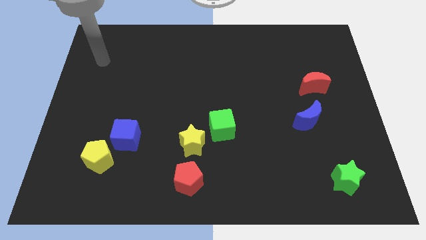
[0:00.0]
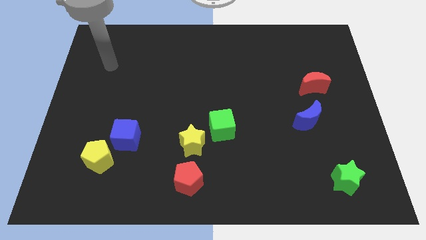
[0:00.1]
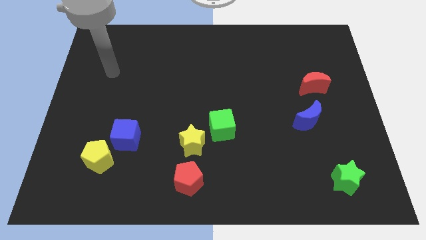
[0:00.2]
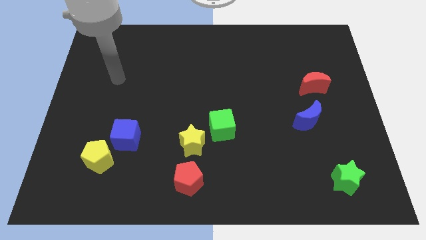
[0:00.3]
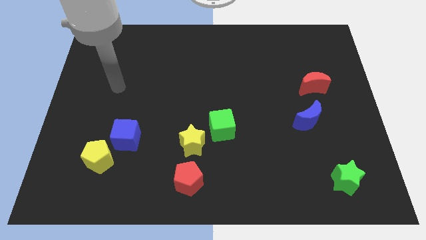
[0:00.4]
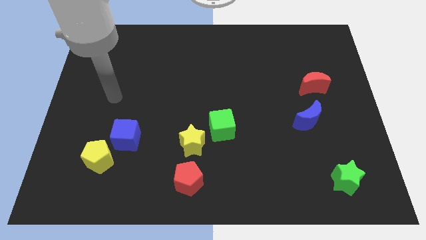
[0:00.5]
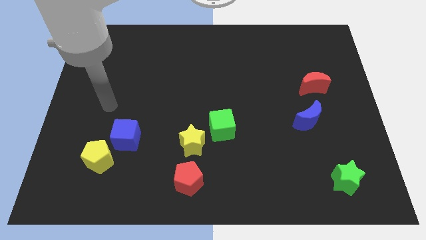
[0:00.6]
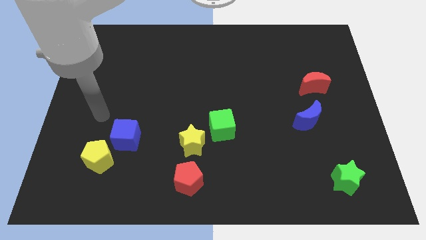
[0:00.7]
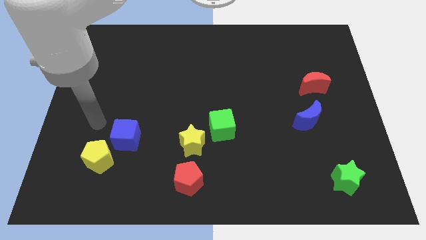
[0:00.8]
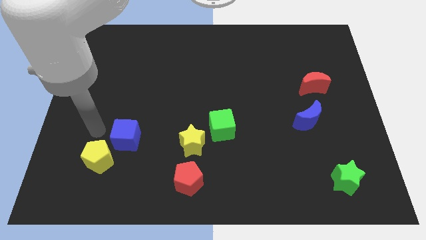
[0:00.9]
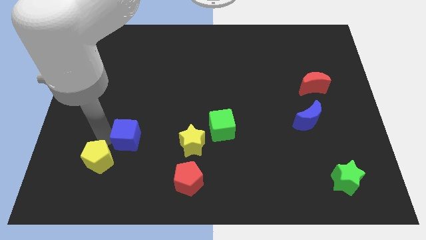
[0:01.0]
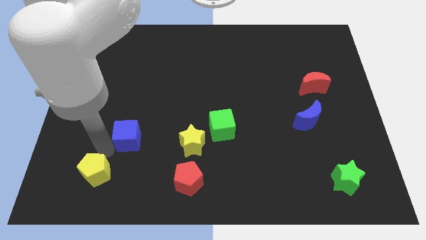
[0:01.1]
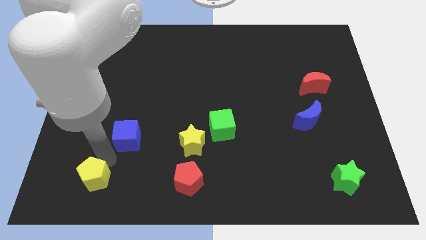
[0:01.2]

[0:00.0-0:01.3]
move the blue cube away from the yellow pentagon

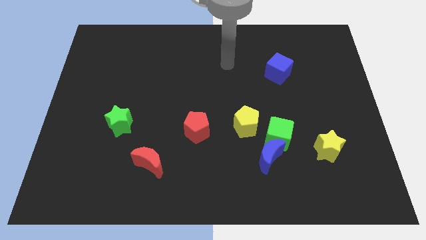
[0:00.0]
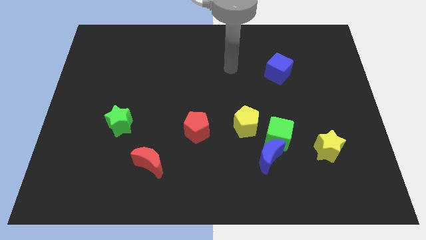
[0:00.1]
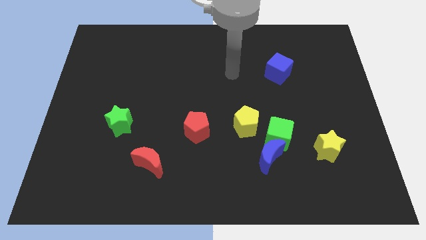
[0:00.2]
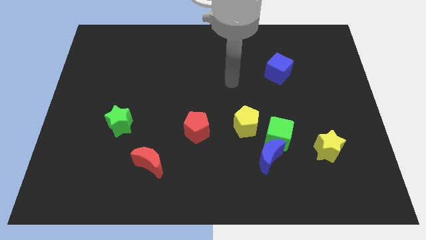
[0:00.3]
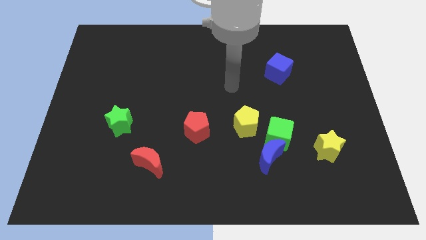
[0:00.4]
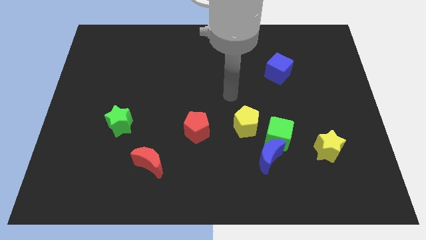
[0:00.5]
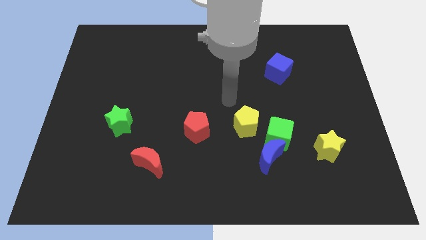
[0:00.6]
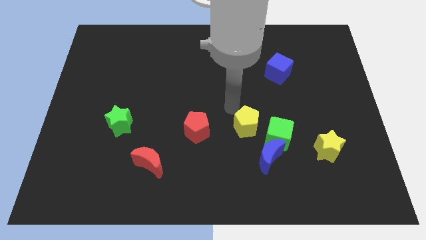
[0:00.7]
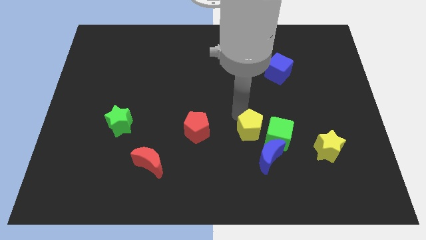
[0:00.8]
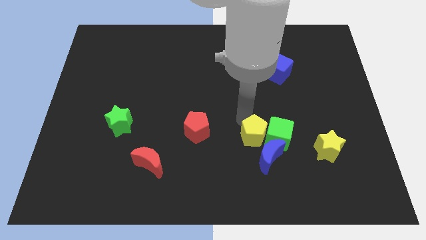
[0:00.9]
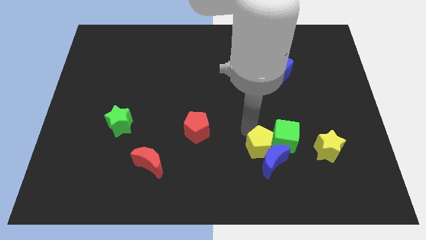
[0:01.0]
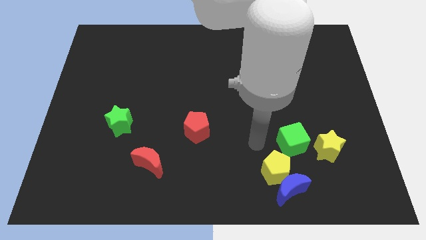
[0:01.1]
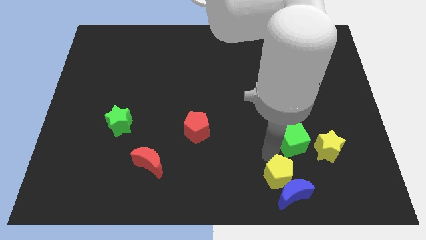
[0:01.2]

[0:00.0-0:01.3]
move the green cube away from the blue moon and yellow pentagon

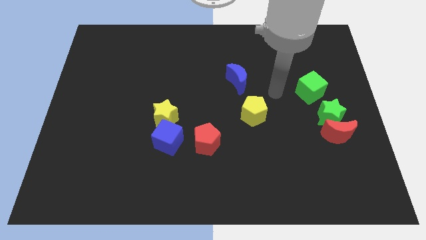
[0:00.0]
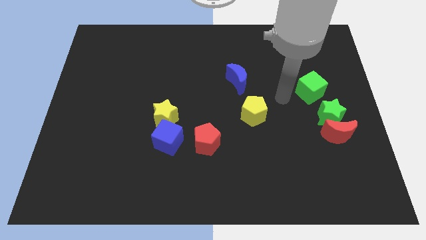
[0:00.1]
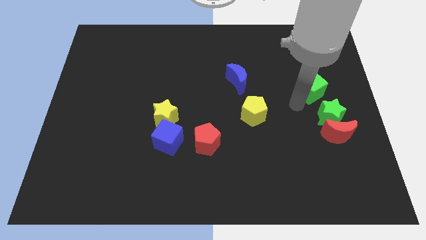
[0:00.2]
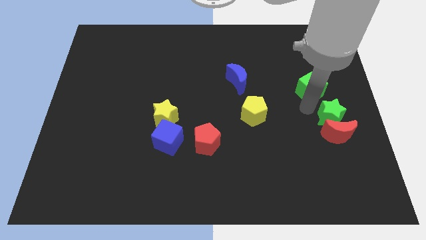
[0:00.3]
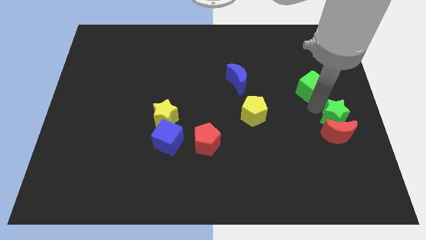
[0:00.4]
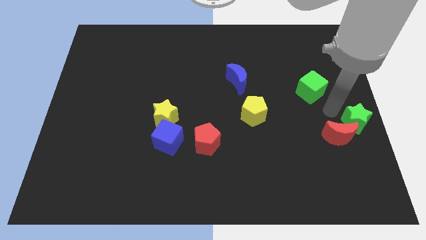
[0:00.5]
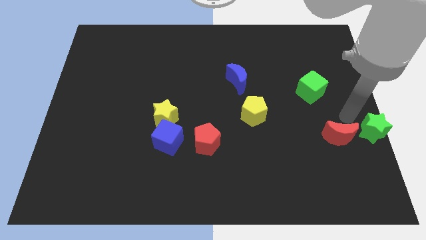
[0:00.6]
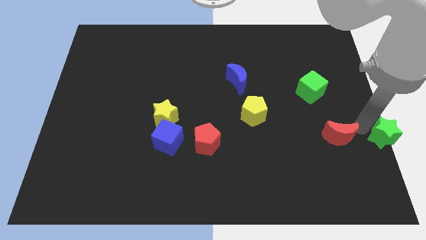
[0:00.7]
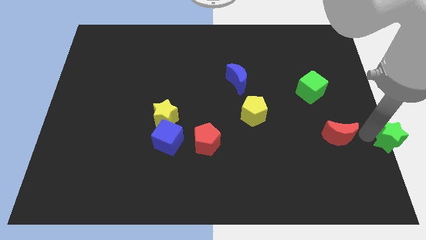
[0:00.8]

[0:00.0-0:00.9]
move the red moon away from the green star

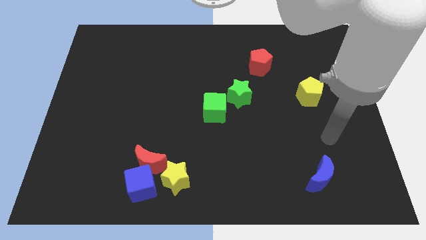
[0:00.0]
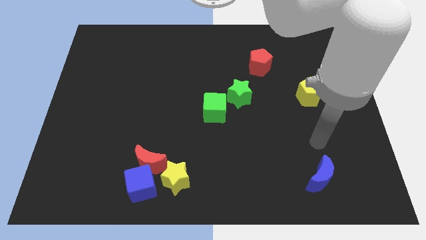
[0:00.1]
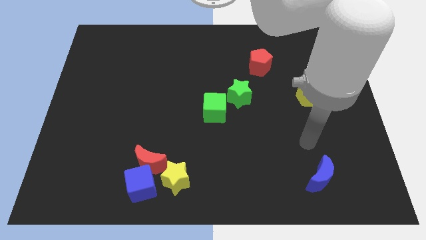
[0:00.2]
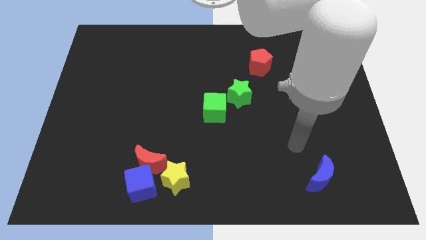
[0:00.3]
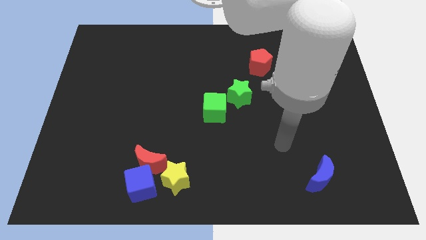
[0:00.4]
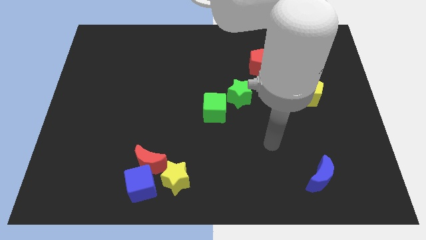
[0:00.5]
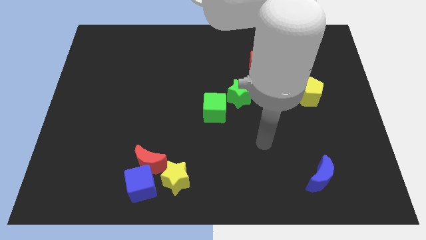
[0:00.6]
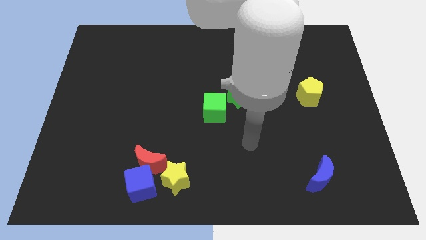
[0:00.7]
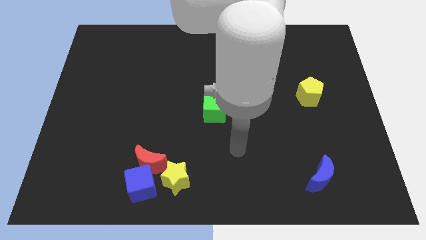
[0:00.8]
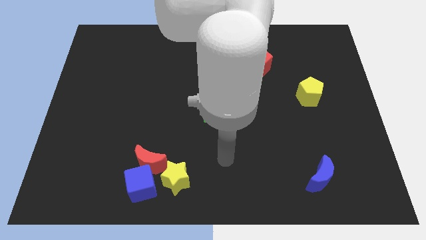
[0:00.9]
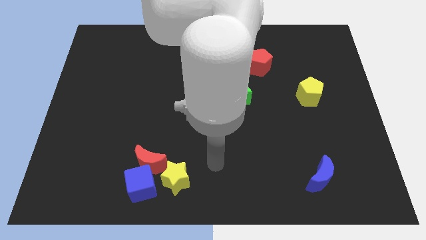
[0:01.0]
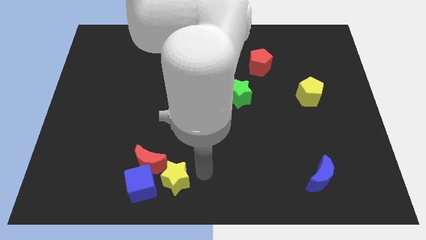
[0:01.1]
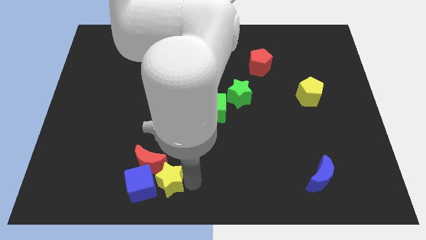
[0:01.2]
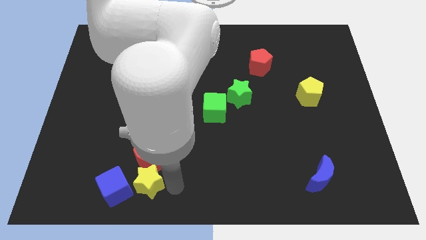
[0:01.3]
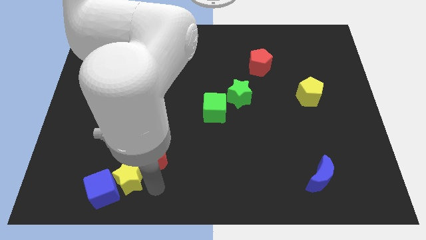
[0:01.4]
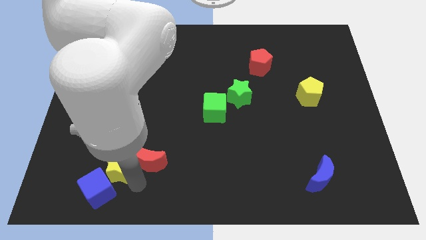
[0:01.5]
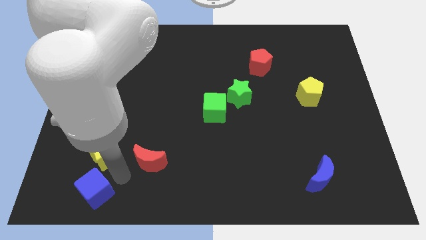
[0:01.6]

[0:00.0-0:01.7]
pull the red moon apart from the blue cube and yellow star

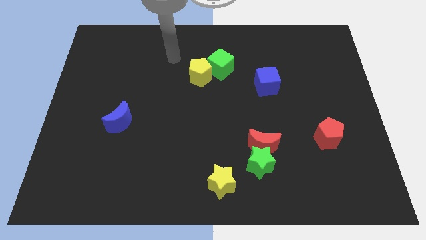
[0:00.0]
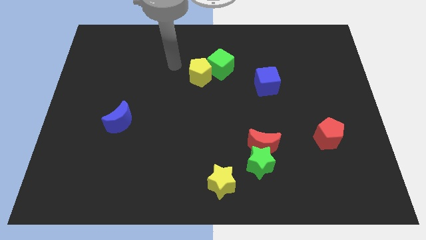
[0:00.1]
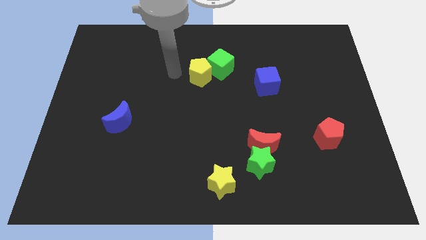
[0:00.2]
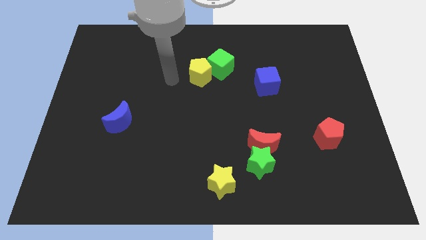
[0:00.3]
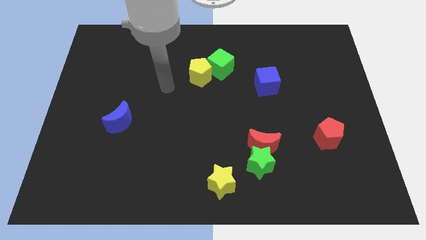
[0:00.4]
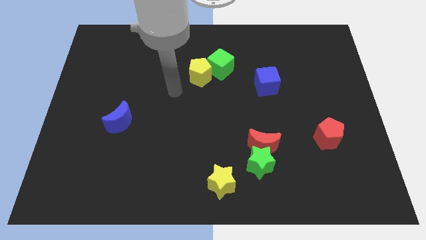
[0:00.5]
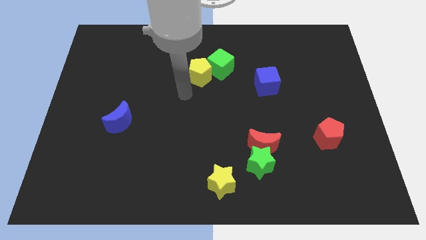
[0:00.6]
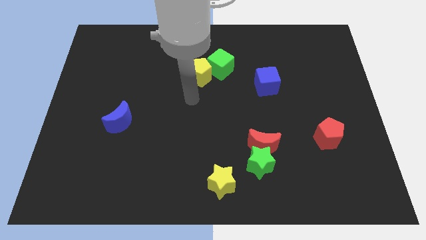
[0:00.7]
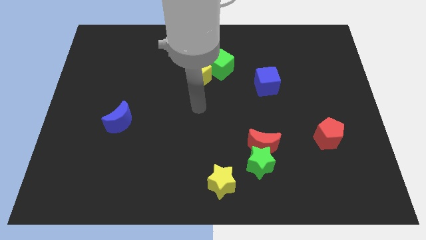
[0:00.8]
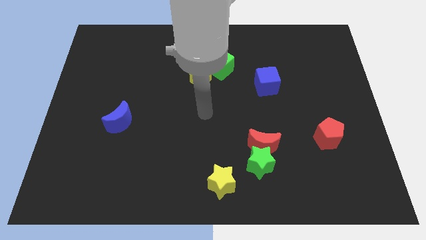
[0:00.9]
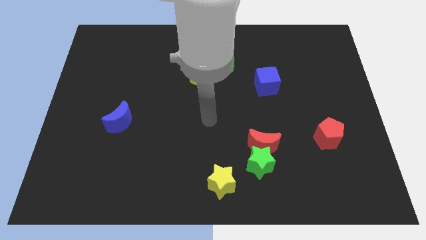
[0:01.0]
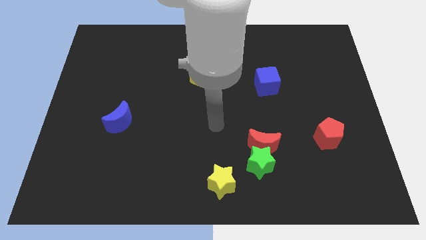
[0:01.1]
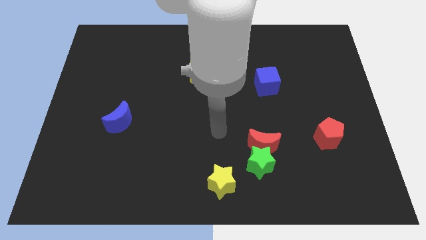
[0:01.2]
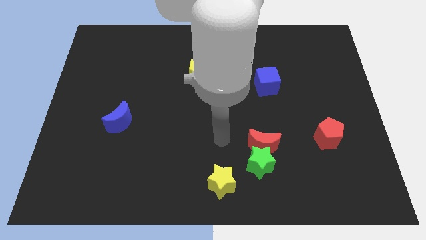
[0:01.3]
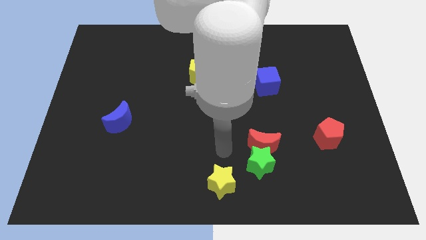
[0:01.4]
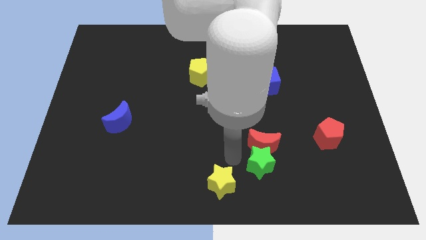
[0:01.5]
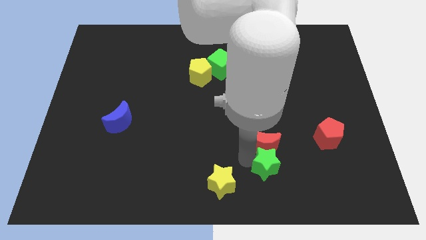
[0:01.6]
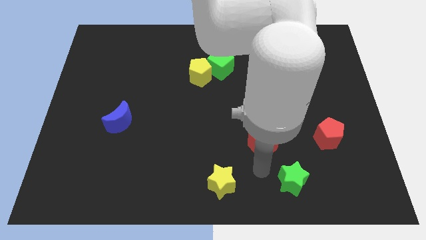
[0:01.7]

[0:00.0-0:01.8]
pull the red moon apart from the green star

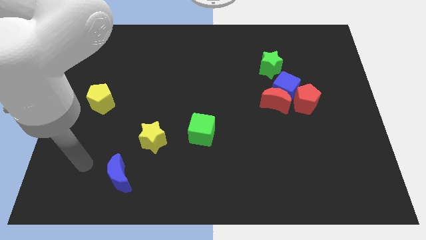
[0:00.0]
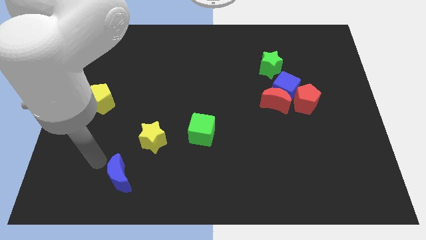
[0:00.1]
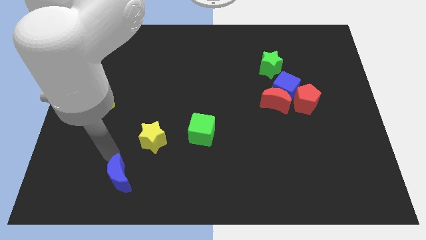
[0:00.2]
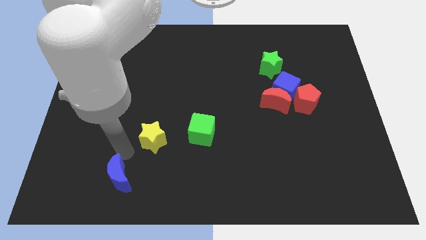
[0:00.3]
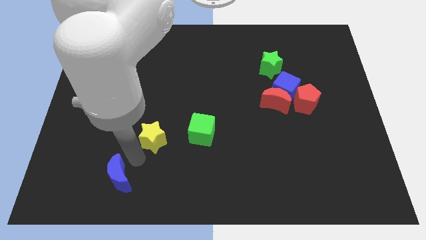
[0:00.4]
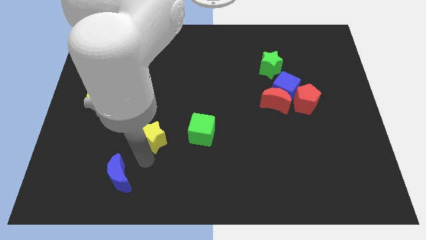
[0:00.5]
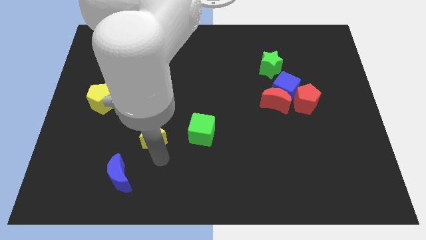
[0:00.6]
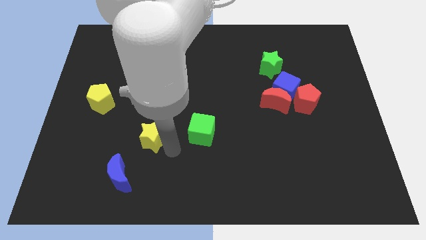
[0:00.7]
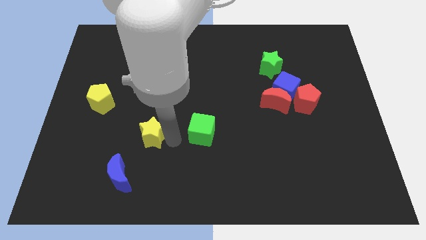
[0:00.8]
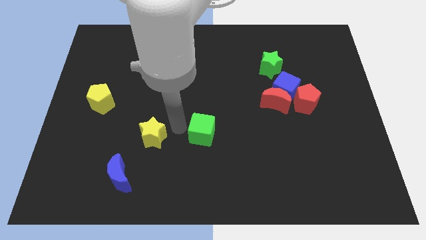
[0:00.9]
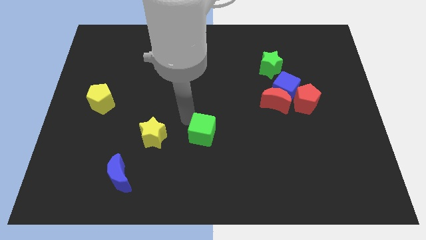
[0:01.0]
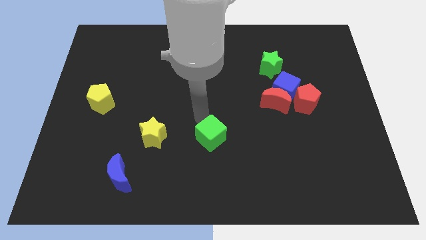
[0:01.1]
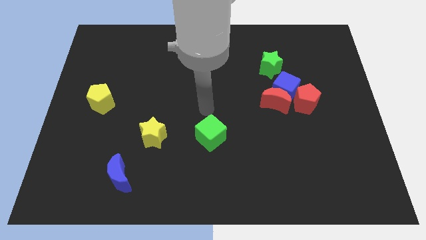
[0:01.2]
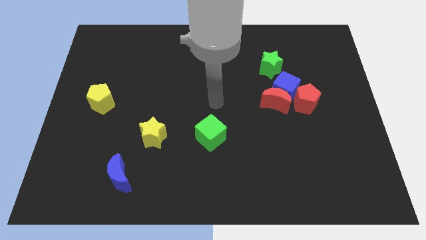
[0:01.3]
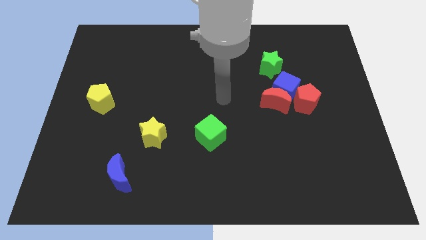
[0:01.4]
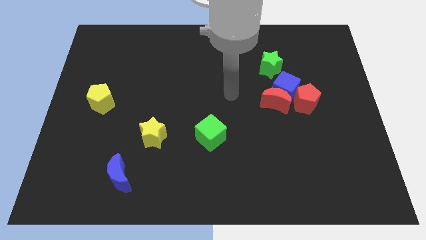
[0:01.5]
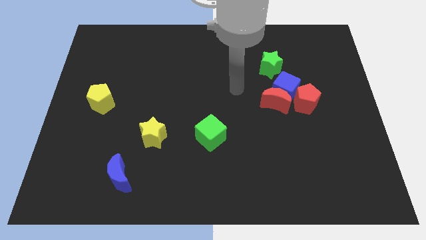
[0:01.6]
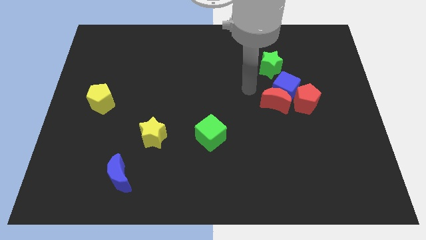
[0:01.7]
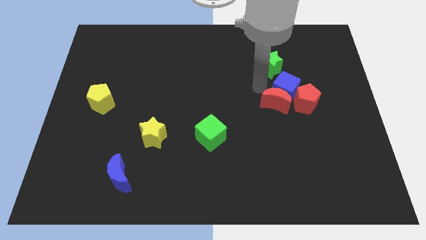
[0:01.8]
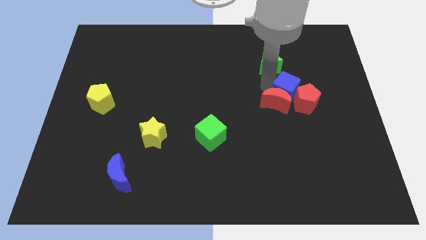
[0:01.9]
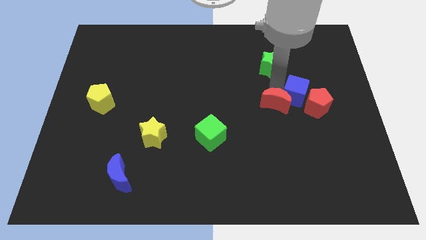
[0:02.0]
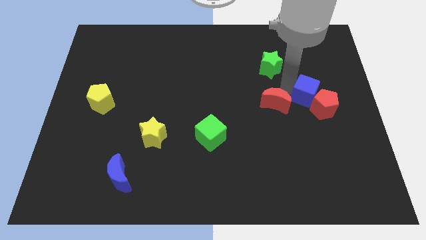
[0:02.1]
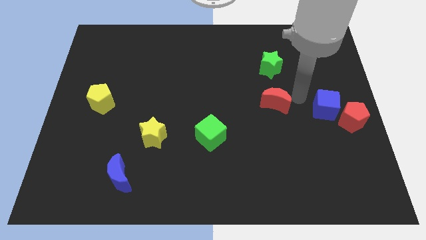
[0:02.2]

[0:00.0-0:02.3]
pull the red moon apart from the blue cube and red pentagon
